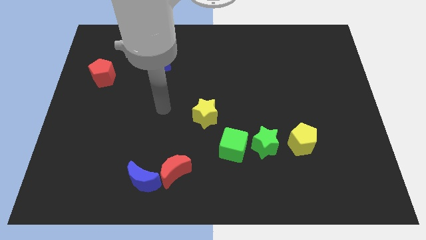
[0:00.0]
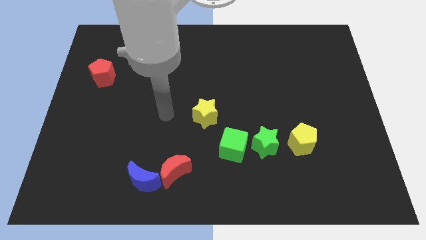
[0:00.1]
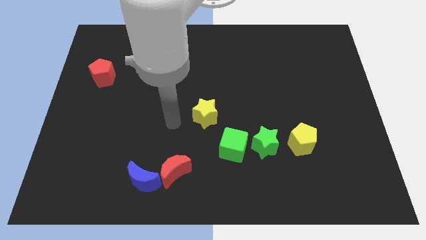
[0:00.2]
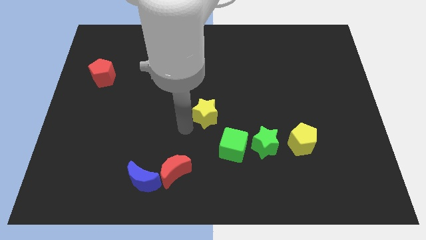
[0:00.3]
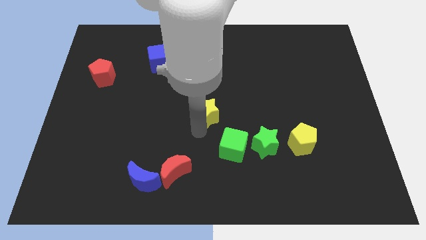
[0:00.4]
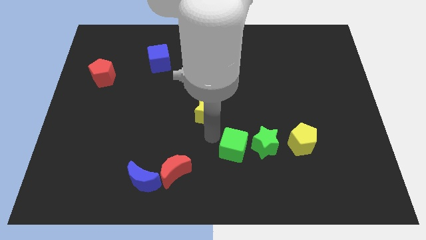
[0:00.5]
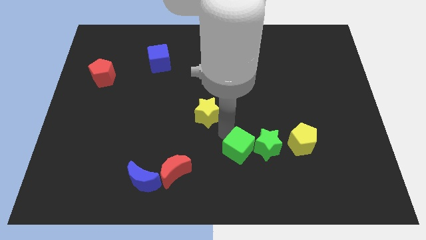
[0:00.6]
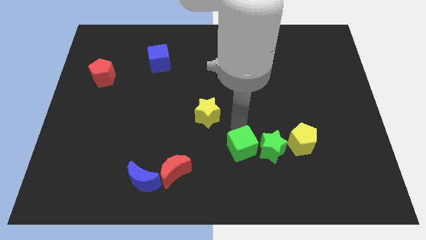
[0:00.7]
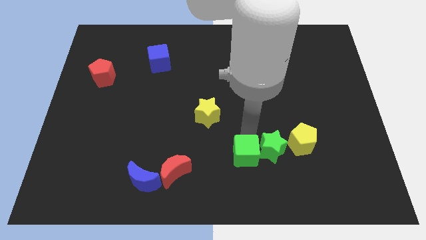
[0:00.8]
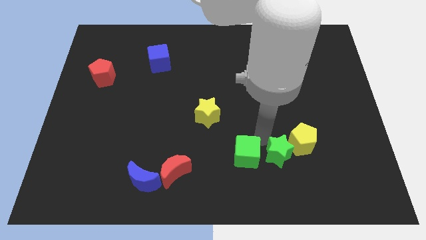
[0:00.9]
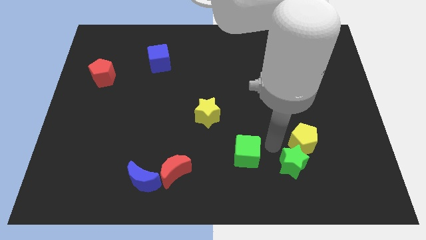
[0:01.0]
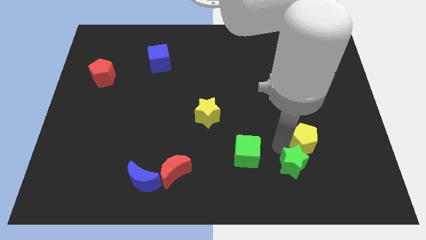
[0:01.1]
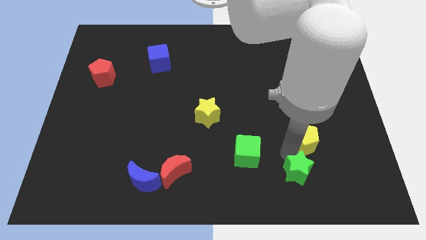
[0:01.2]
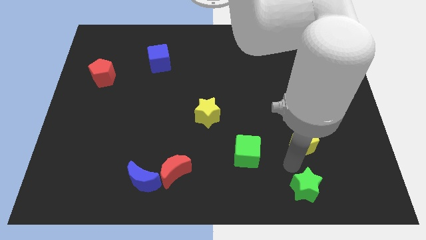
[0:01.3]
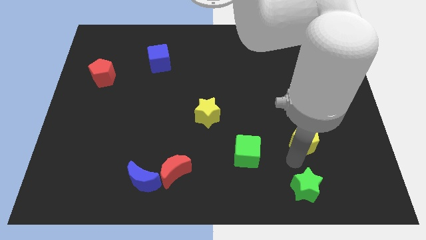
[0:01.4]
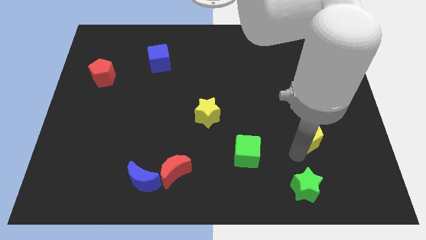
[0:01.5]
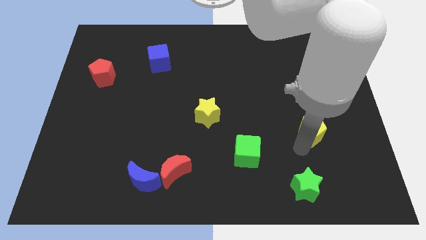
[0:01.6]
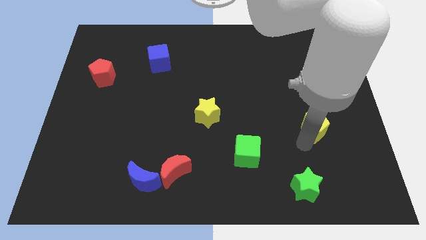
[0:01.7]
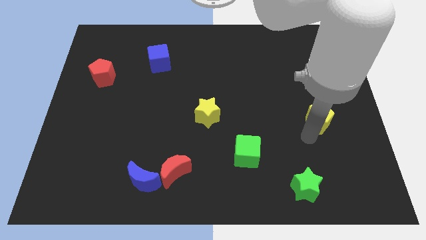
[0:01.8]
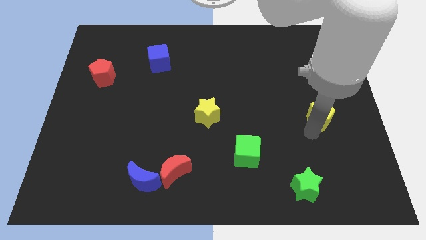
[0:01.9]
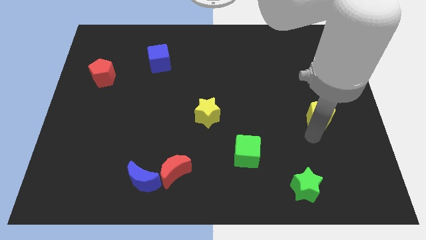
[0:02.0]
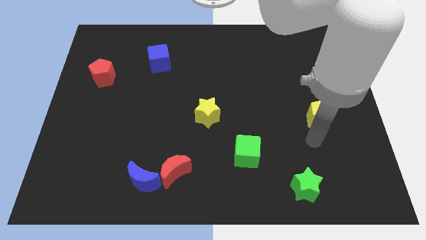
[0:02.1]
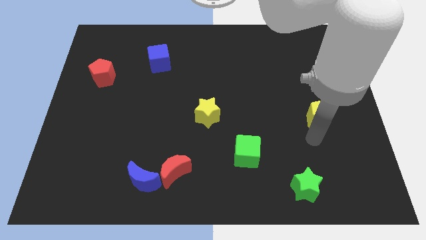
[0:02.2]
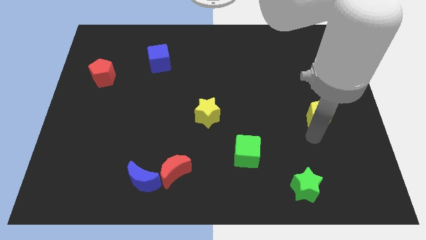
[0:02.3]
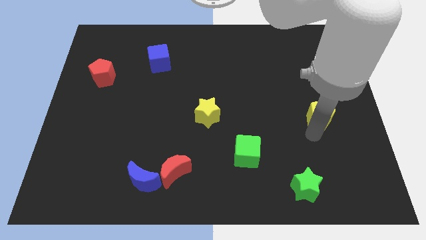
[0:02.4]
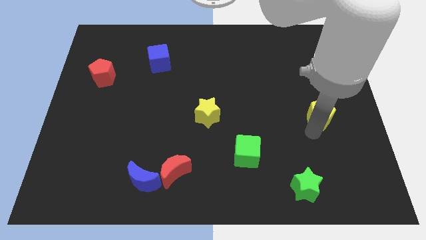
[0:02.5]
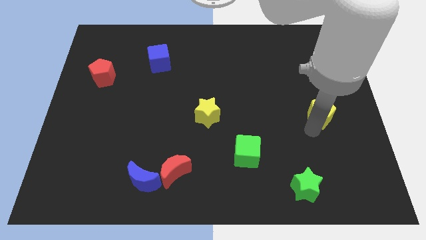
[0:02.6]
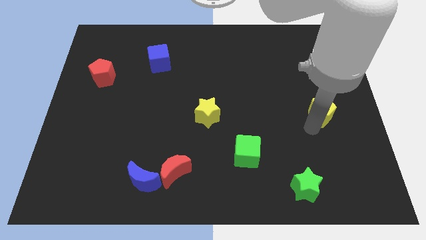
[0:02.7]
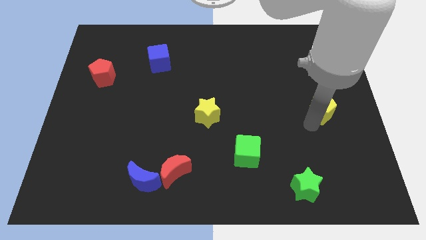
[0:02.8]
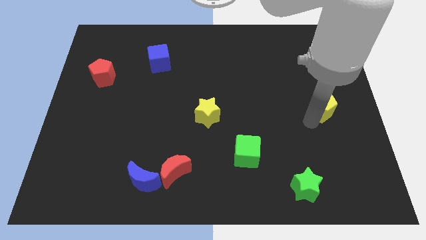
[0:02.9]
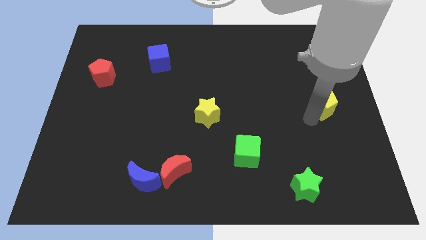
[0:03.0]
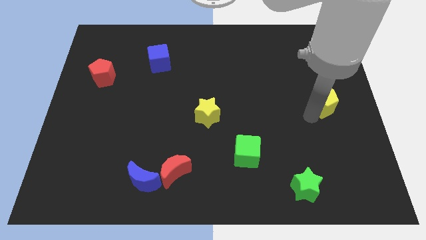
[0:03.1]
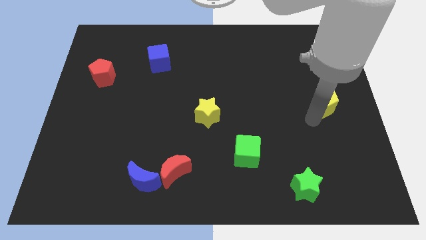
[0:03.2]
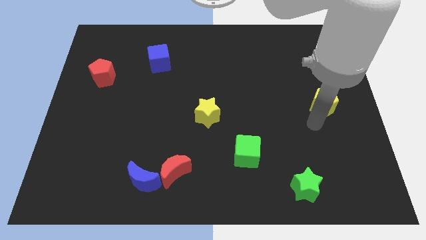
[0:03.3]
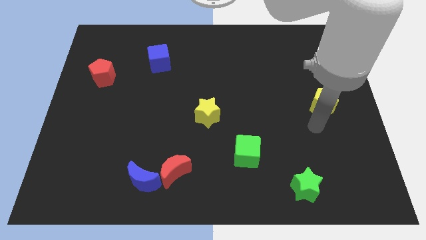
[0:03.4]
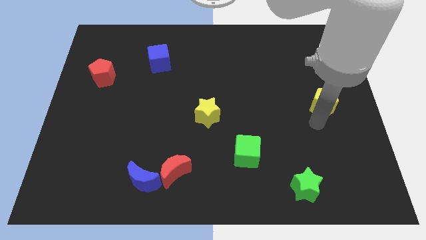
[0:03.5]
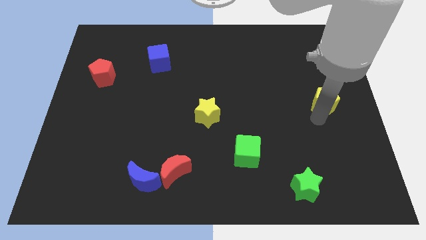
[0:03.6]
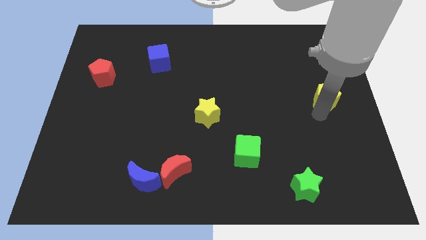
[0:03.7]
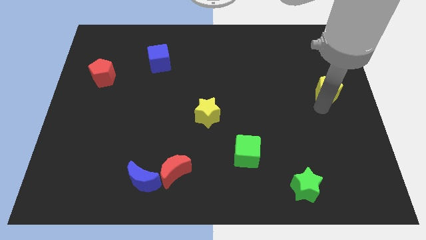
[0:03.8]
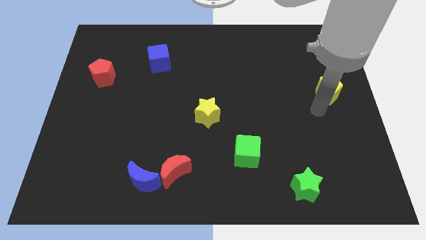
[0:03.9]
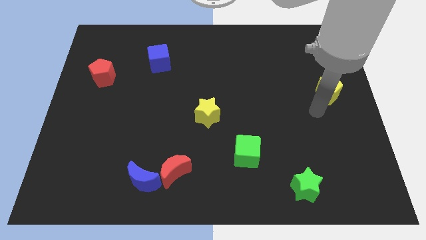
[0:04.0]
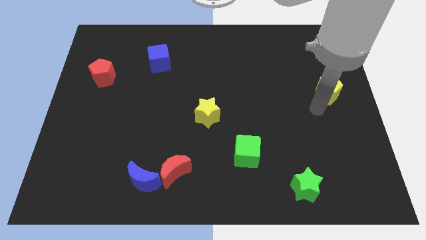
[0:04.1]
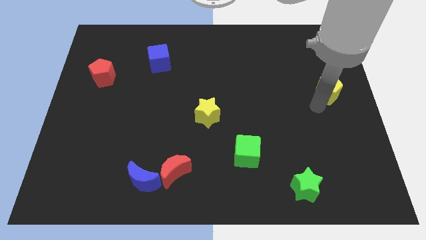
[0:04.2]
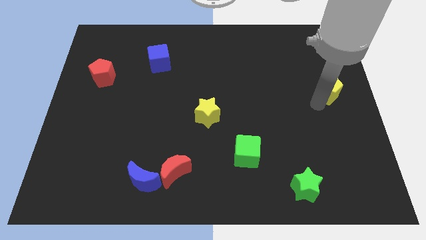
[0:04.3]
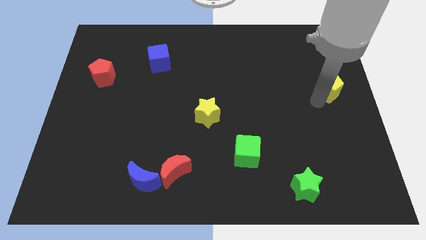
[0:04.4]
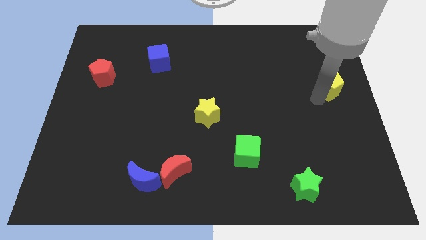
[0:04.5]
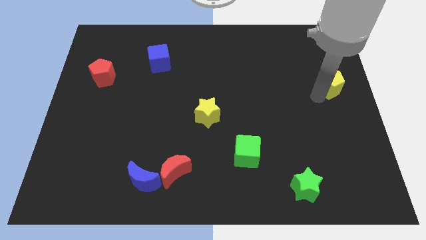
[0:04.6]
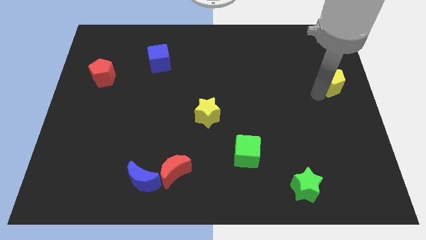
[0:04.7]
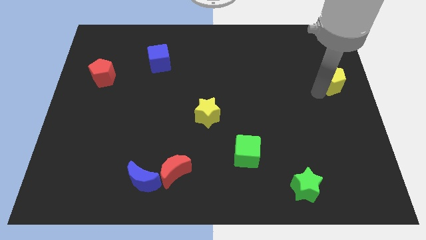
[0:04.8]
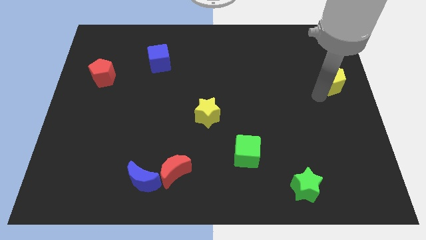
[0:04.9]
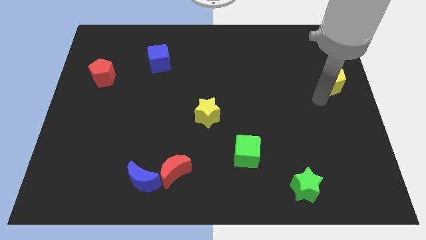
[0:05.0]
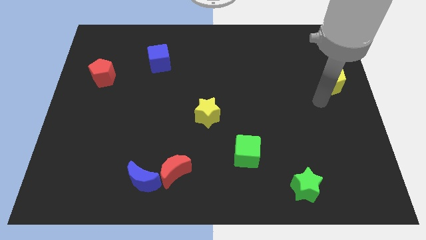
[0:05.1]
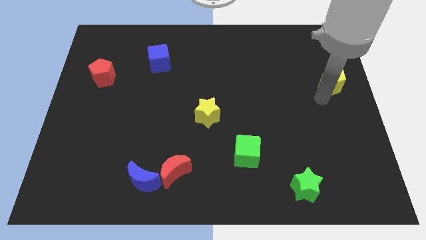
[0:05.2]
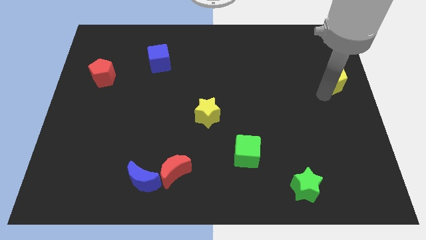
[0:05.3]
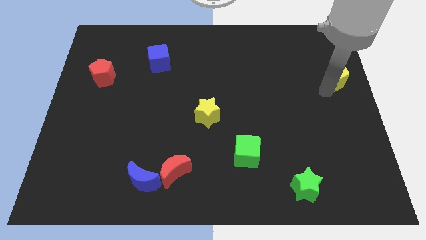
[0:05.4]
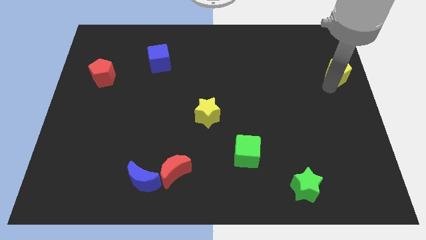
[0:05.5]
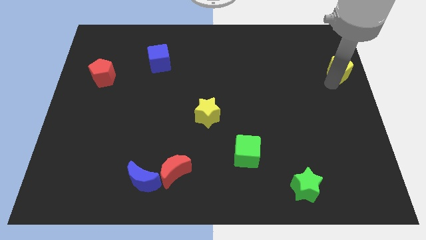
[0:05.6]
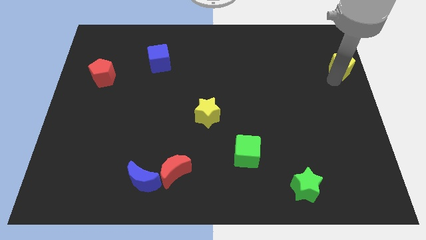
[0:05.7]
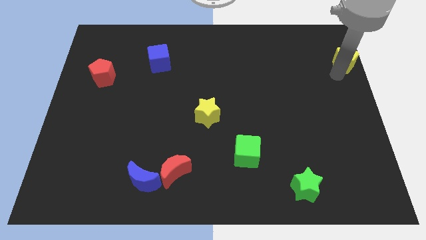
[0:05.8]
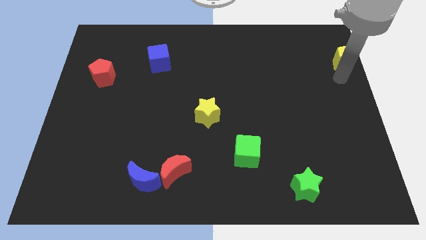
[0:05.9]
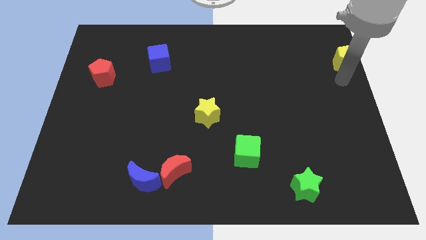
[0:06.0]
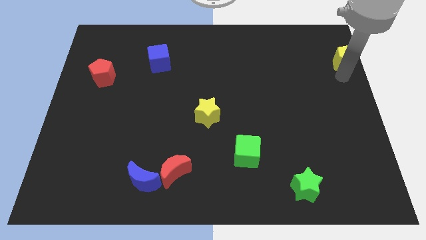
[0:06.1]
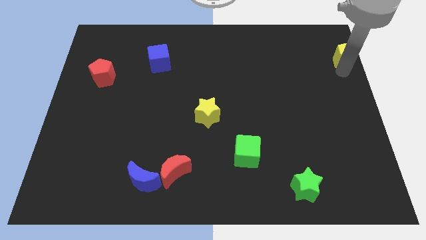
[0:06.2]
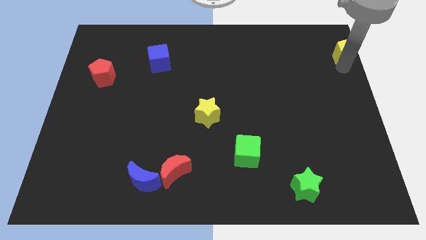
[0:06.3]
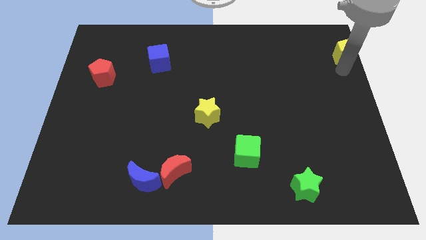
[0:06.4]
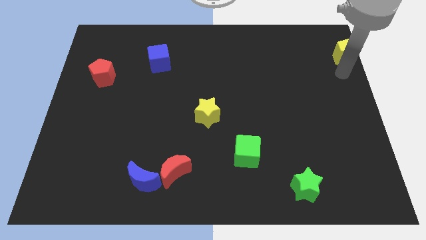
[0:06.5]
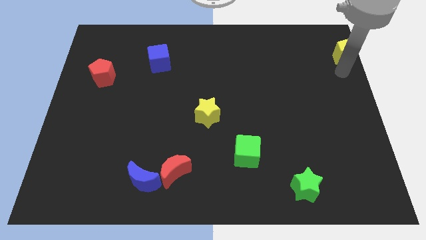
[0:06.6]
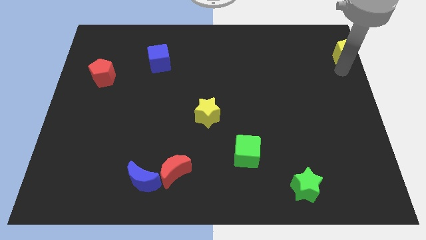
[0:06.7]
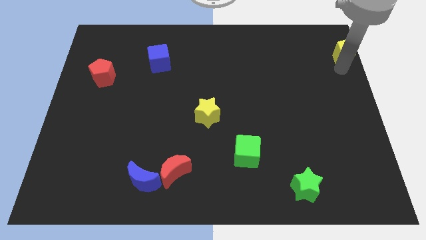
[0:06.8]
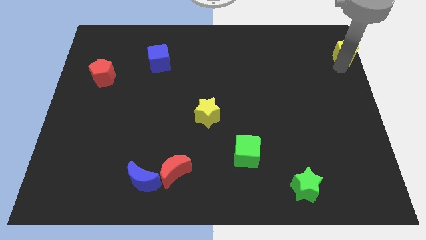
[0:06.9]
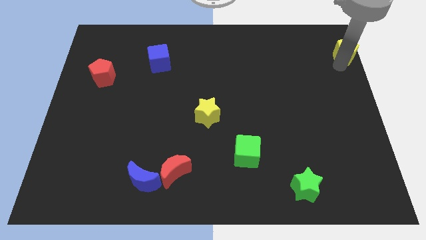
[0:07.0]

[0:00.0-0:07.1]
put the yellow pentagon to the upper right corner
